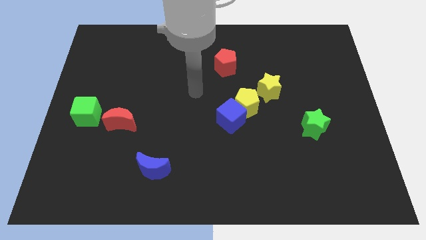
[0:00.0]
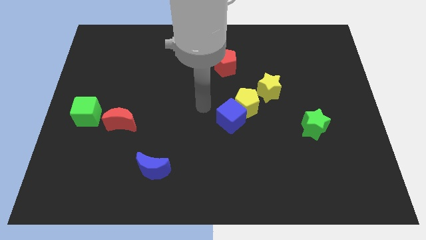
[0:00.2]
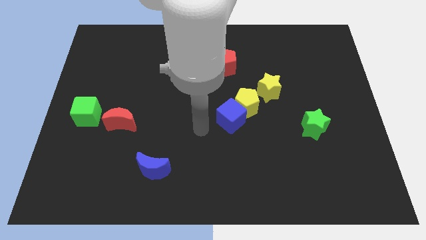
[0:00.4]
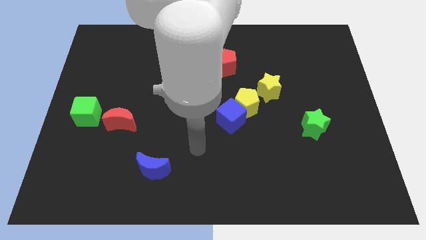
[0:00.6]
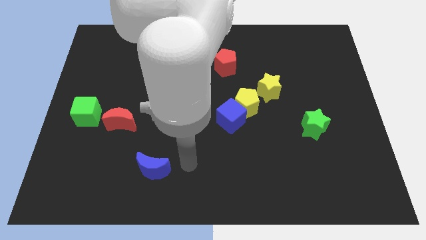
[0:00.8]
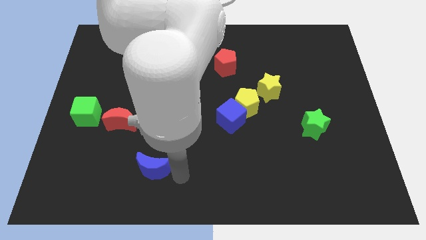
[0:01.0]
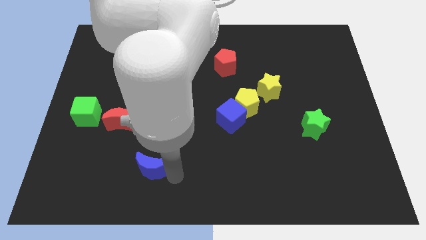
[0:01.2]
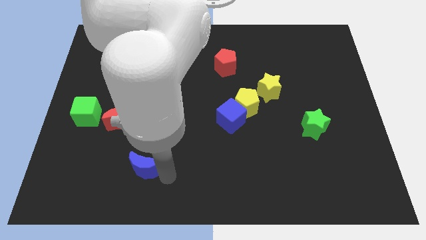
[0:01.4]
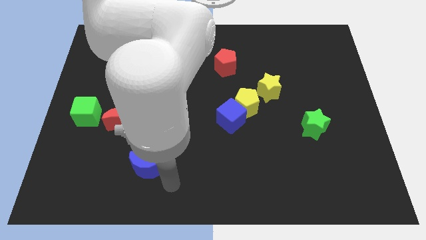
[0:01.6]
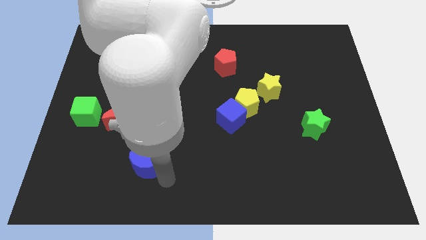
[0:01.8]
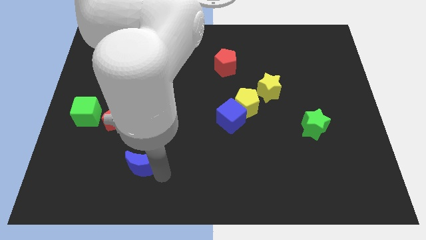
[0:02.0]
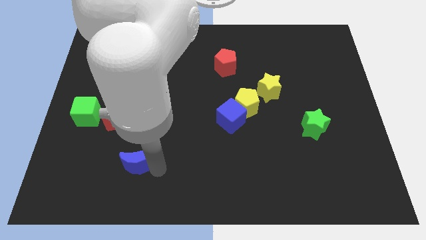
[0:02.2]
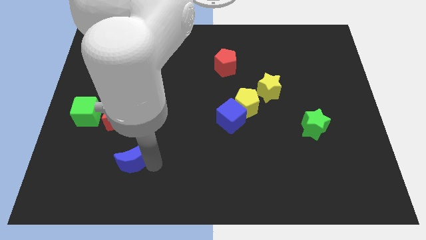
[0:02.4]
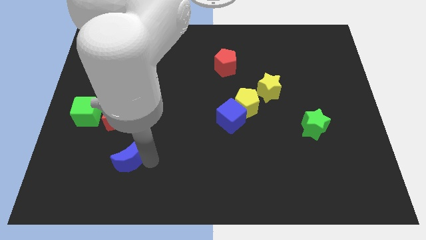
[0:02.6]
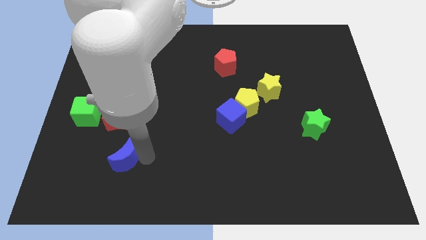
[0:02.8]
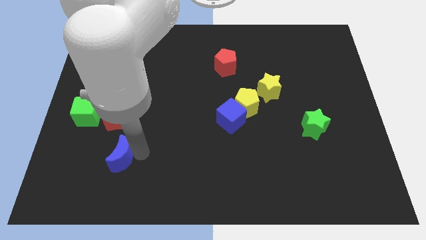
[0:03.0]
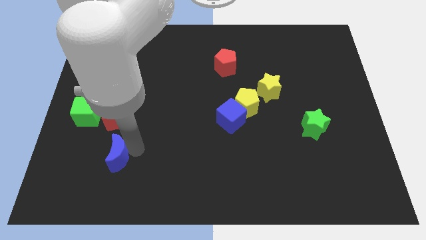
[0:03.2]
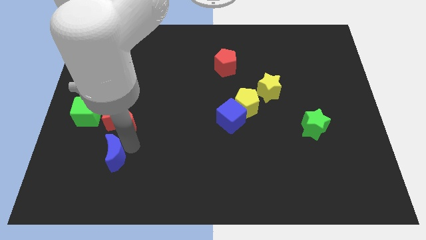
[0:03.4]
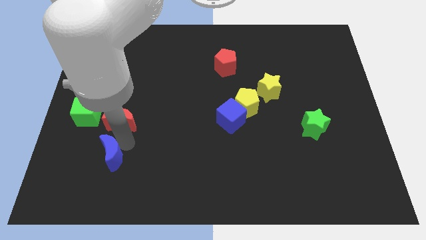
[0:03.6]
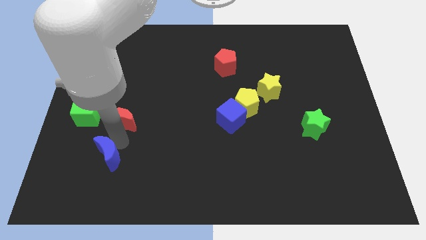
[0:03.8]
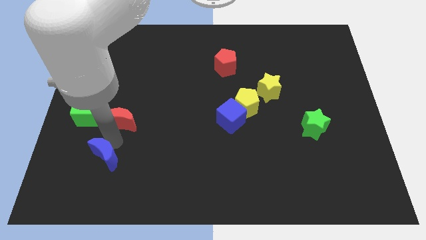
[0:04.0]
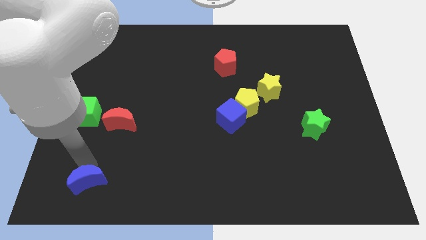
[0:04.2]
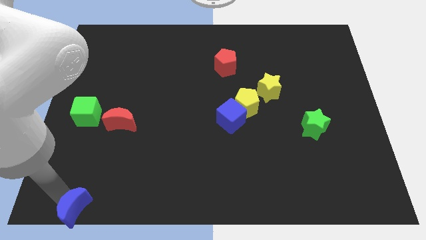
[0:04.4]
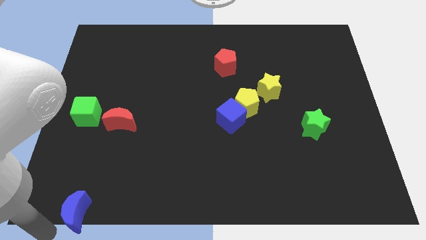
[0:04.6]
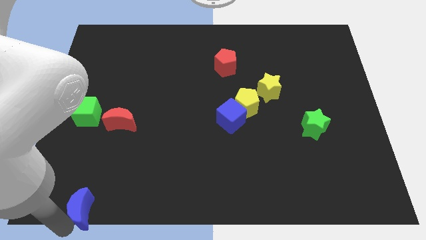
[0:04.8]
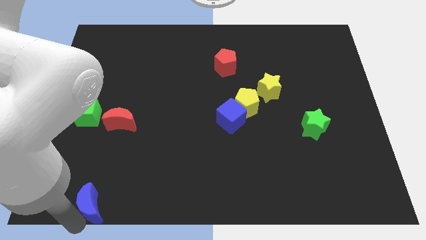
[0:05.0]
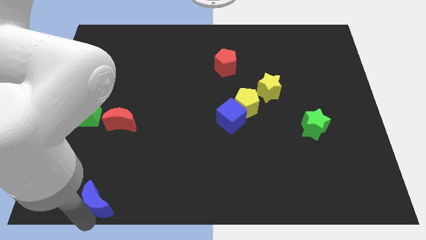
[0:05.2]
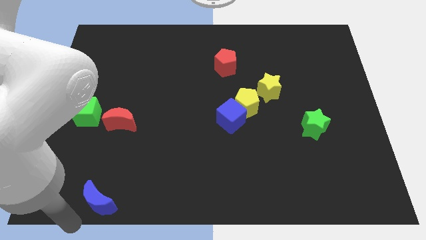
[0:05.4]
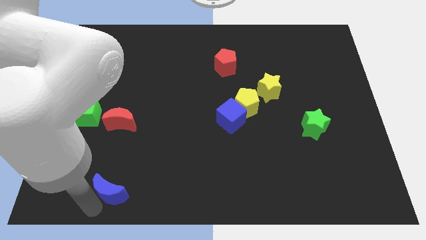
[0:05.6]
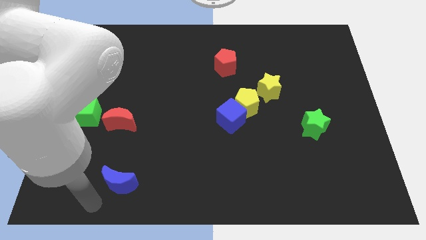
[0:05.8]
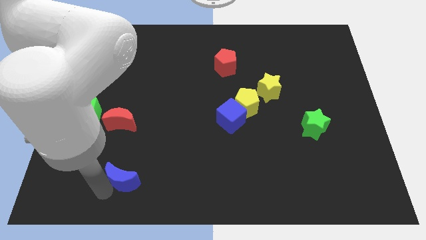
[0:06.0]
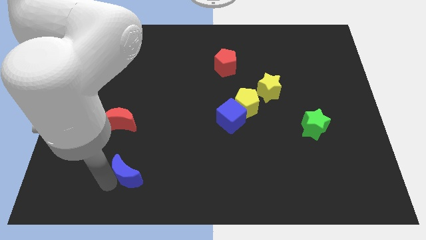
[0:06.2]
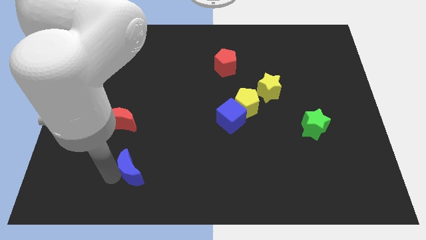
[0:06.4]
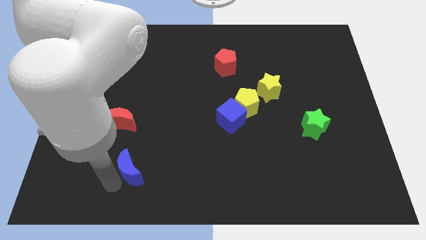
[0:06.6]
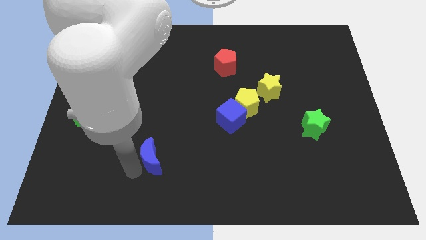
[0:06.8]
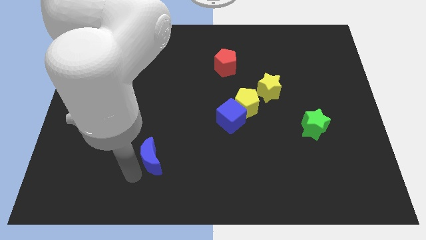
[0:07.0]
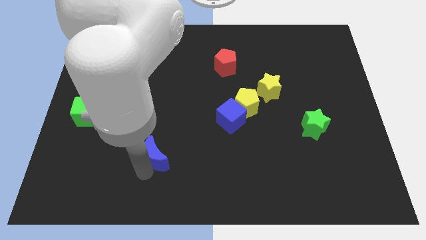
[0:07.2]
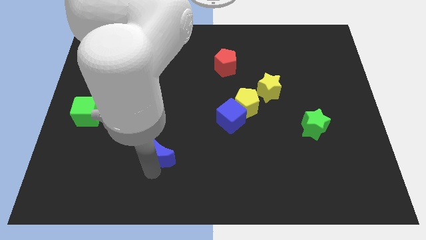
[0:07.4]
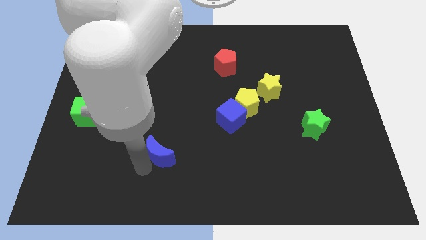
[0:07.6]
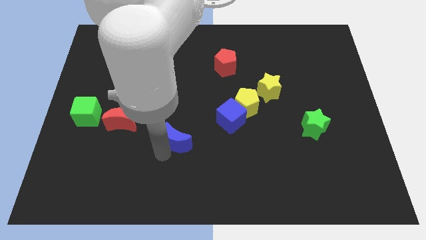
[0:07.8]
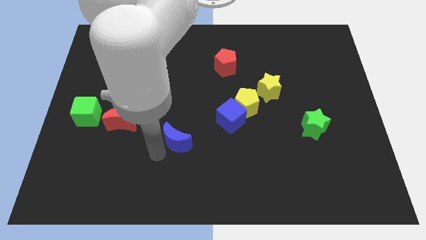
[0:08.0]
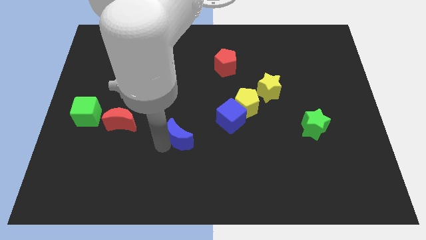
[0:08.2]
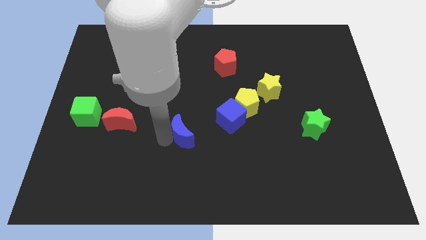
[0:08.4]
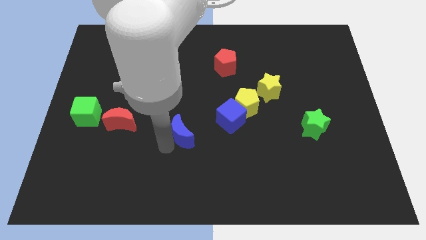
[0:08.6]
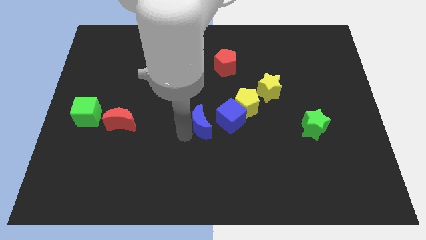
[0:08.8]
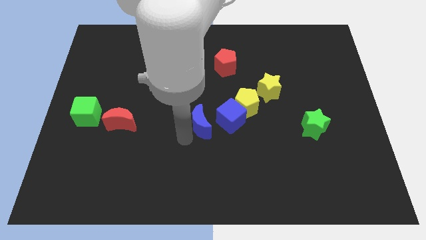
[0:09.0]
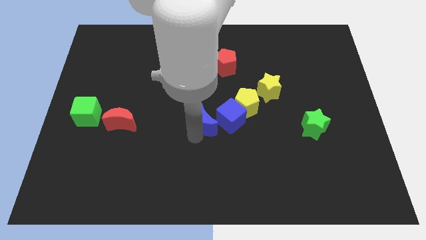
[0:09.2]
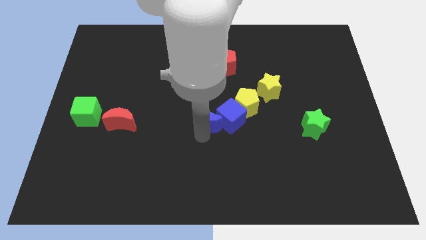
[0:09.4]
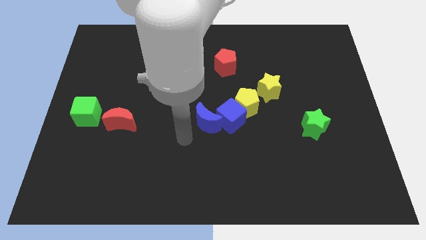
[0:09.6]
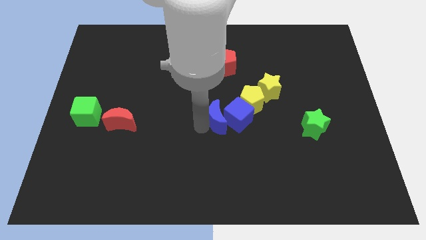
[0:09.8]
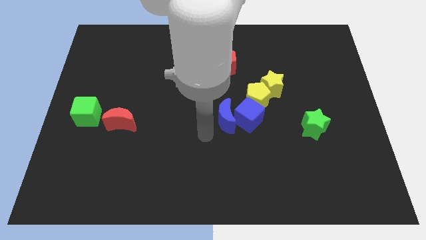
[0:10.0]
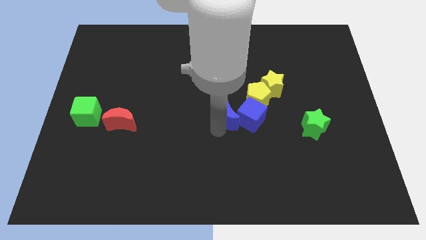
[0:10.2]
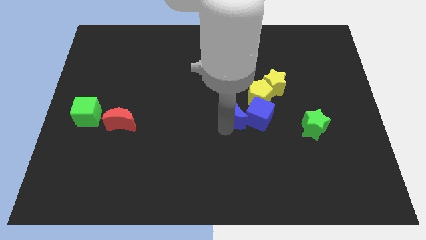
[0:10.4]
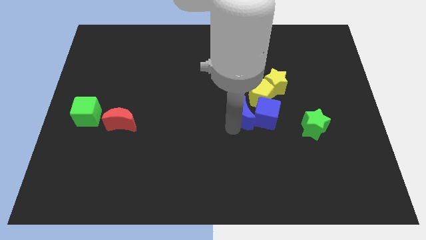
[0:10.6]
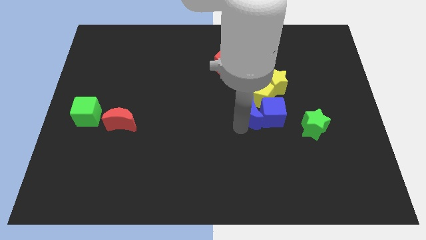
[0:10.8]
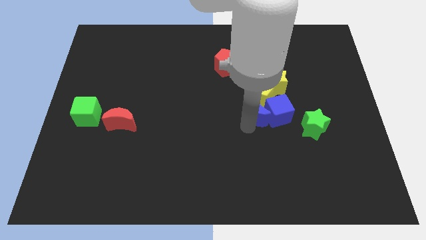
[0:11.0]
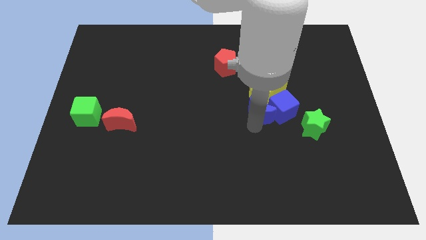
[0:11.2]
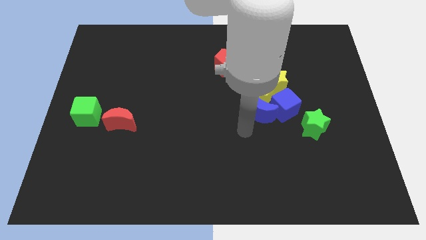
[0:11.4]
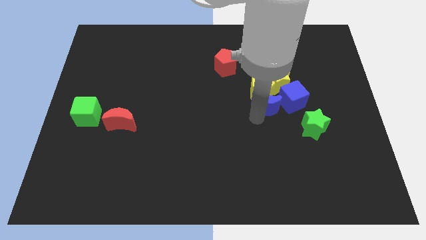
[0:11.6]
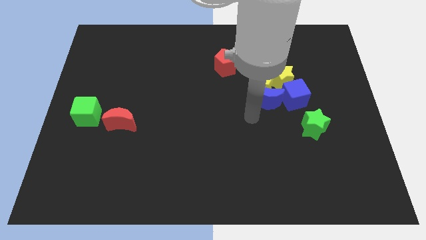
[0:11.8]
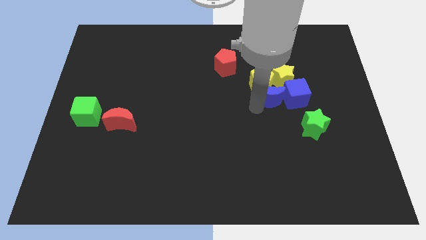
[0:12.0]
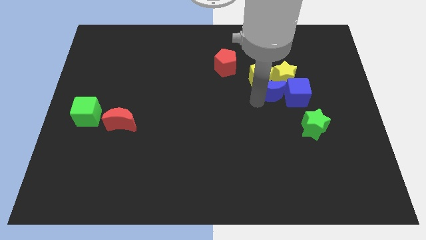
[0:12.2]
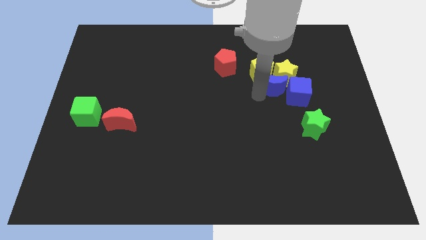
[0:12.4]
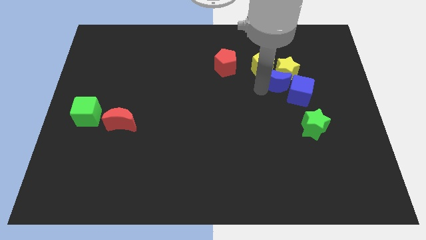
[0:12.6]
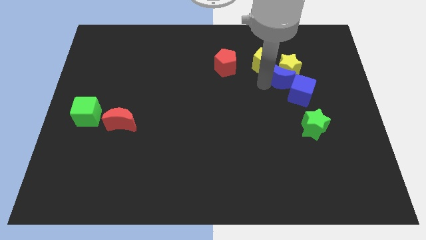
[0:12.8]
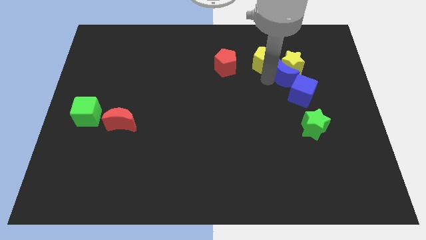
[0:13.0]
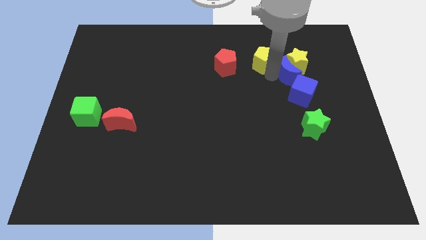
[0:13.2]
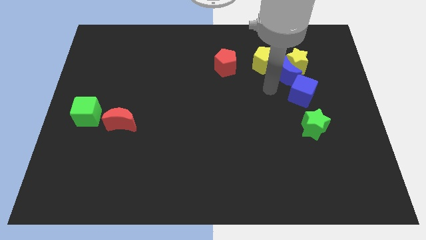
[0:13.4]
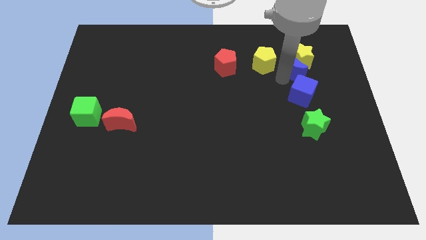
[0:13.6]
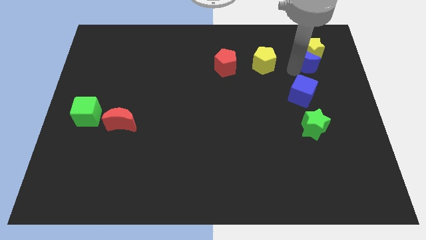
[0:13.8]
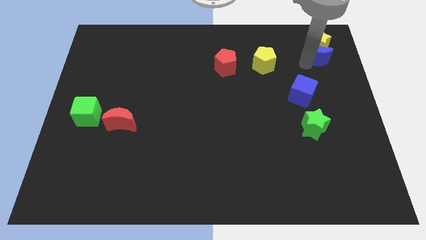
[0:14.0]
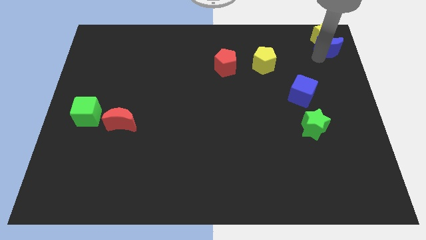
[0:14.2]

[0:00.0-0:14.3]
put the blue moon to the upper right corner

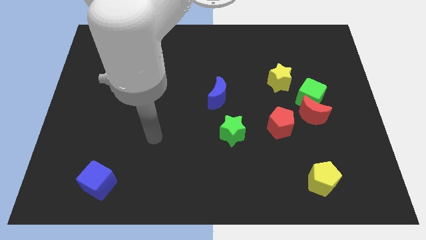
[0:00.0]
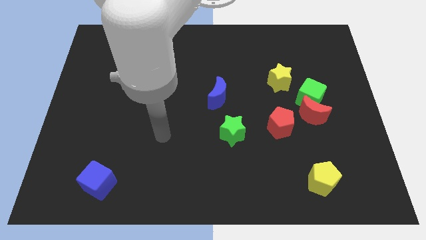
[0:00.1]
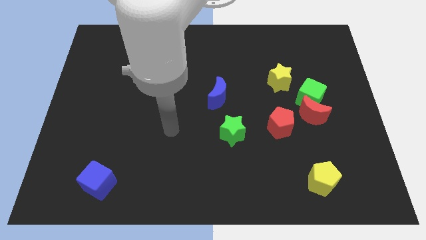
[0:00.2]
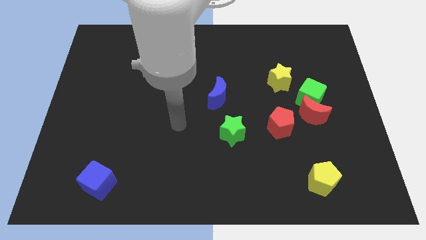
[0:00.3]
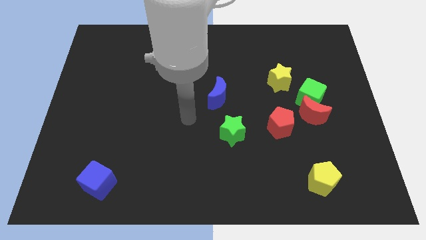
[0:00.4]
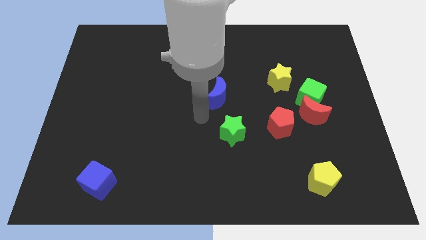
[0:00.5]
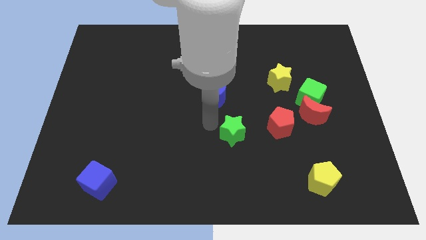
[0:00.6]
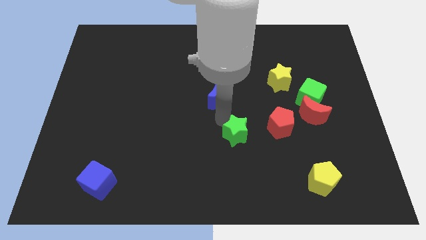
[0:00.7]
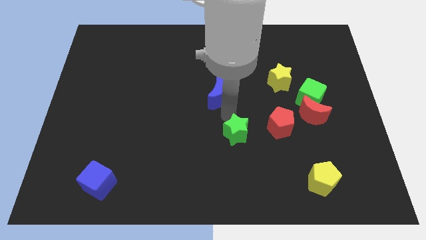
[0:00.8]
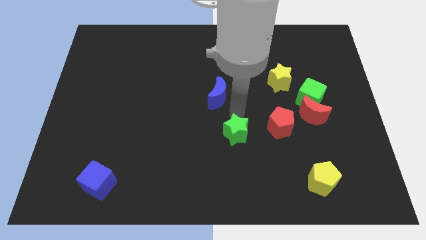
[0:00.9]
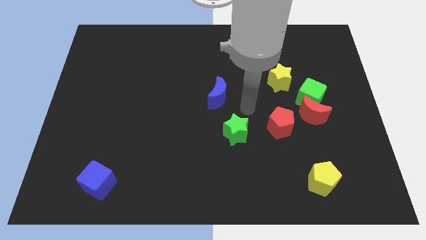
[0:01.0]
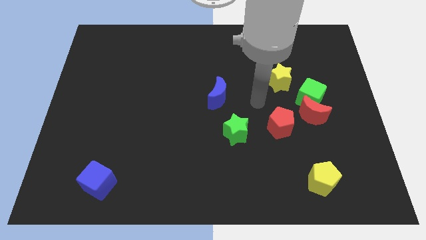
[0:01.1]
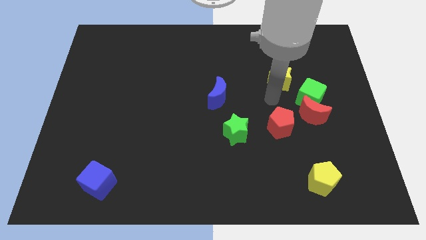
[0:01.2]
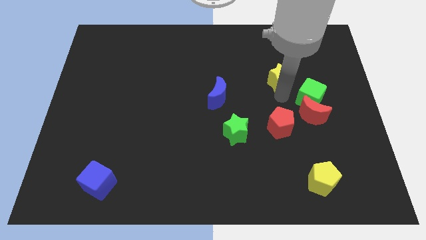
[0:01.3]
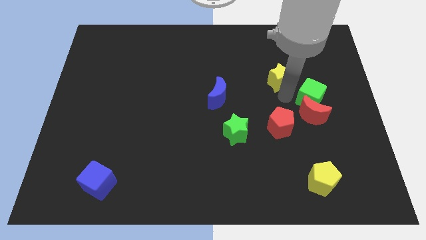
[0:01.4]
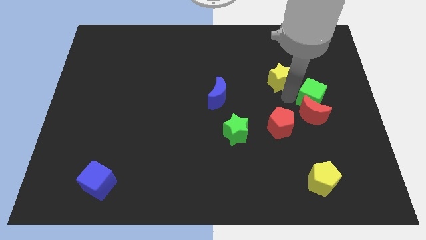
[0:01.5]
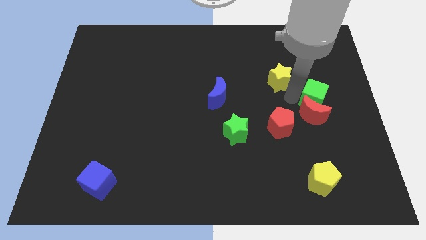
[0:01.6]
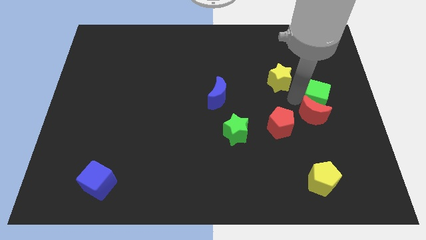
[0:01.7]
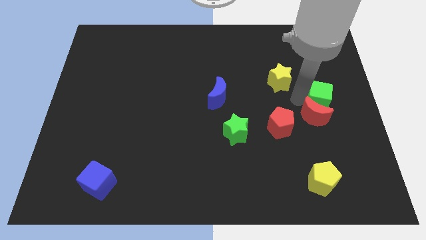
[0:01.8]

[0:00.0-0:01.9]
slide the green cube to the right side
